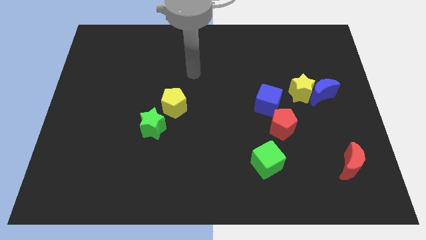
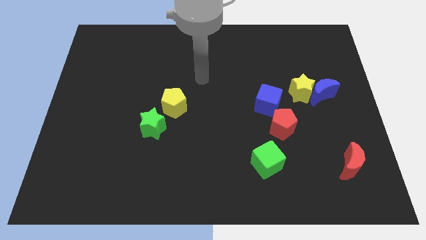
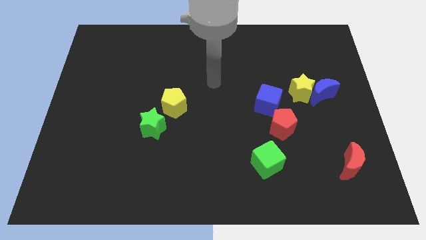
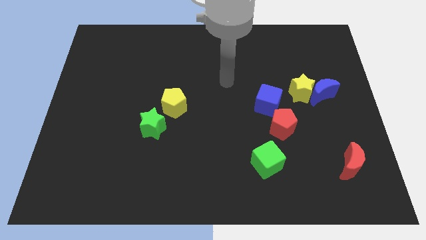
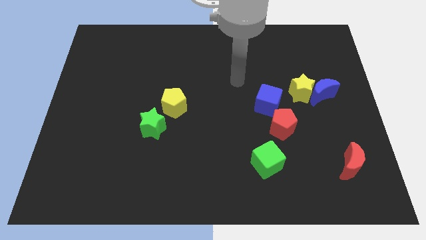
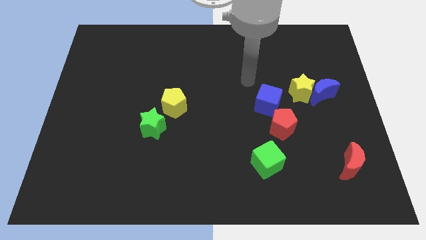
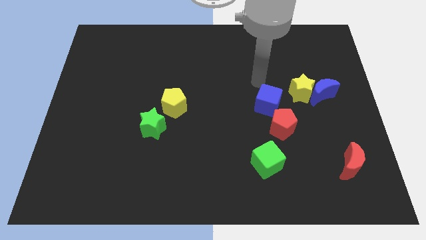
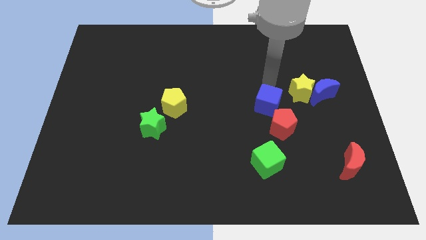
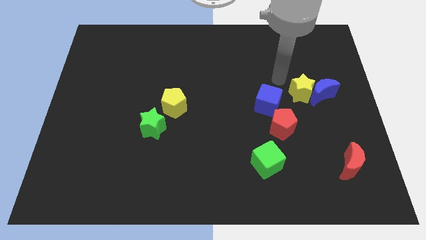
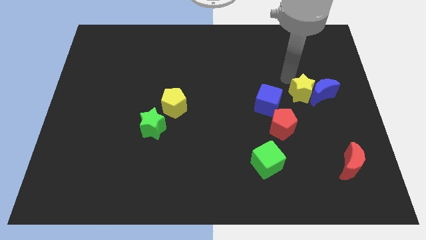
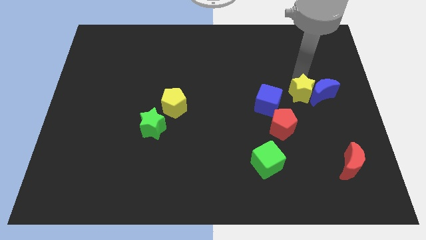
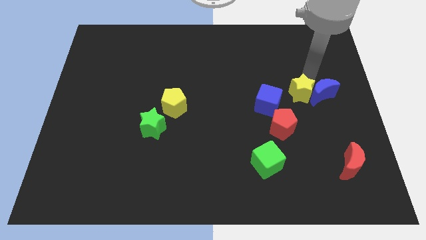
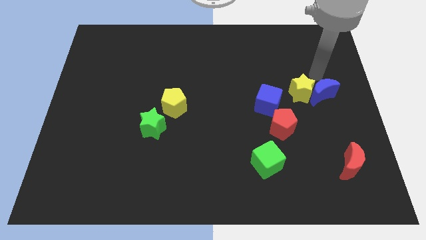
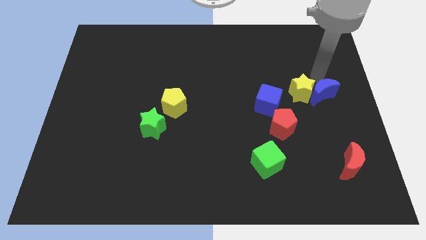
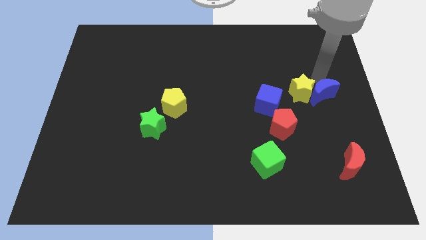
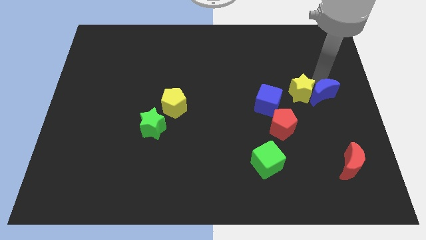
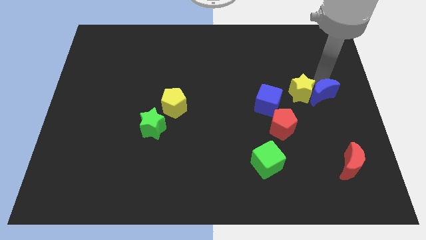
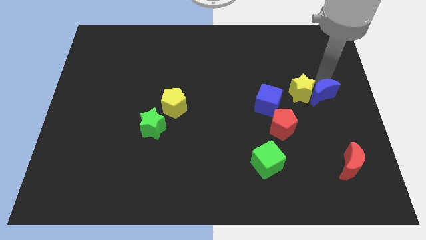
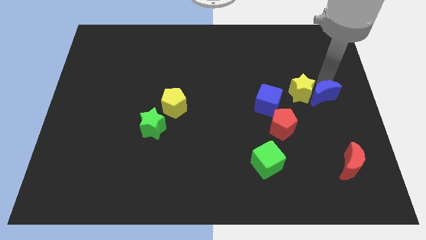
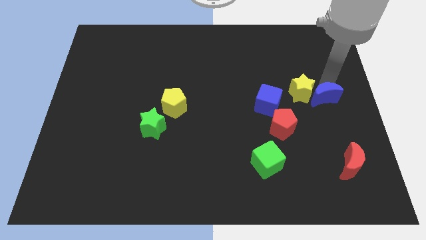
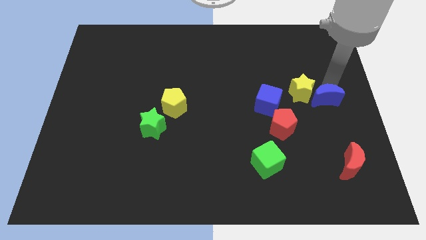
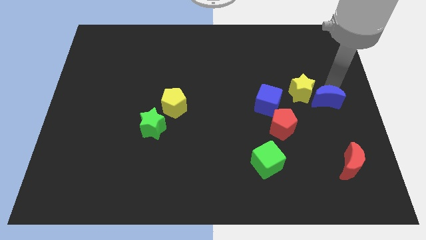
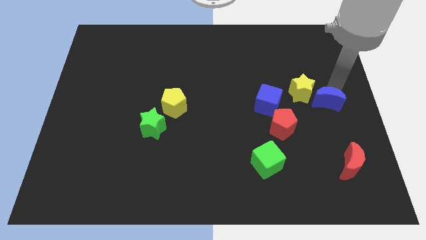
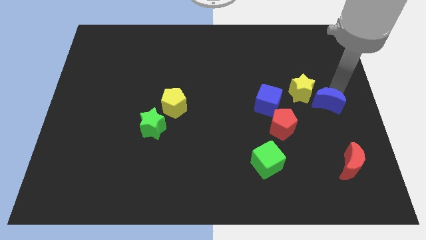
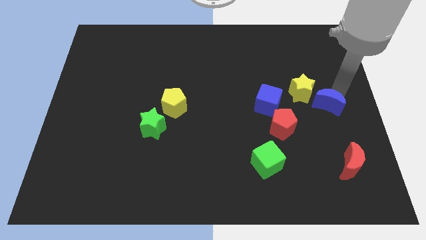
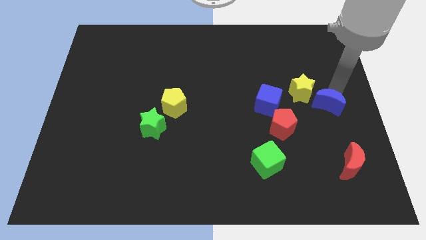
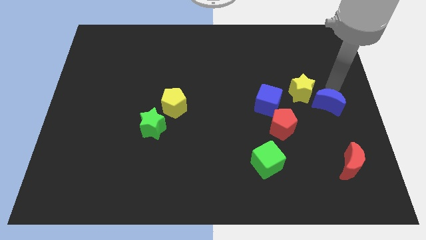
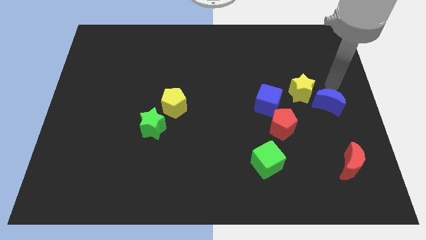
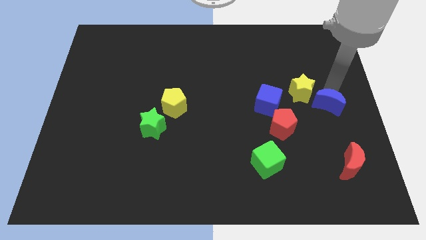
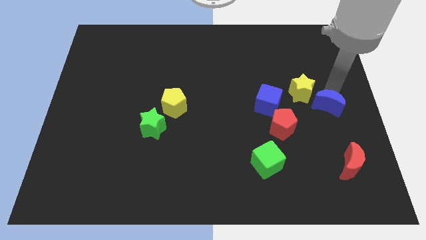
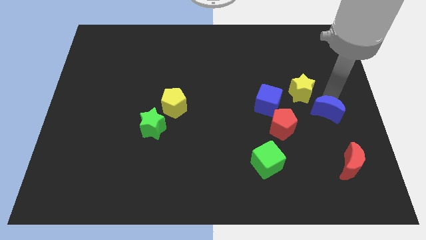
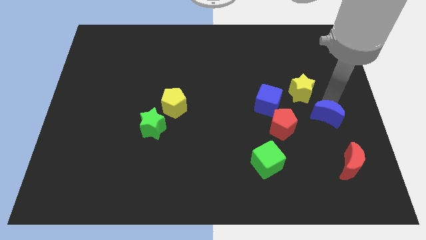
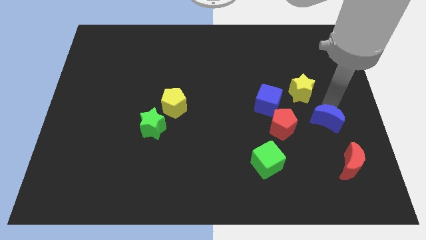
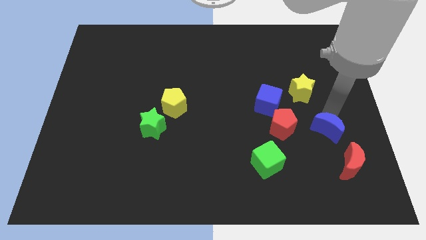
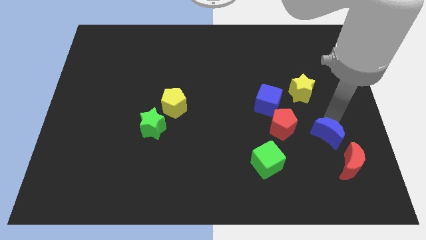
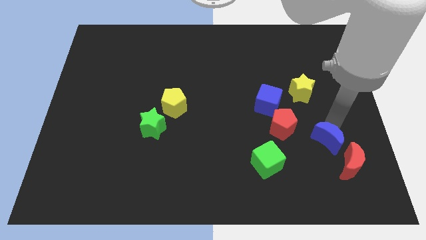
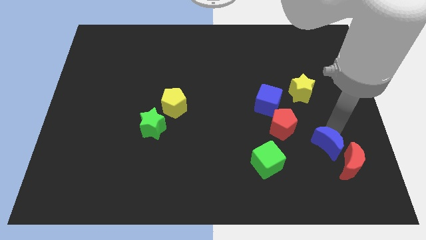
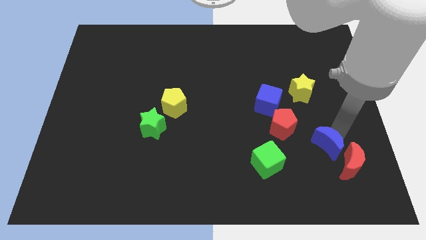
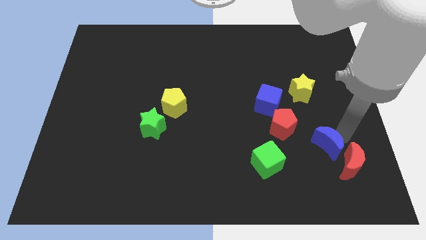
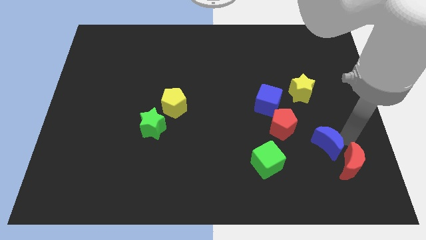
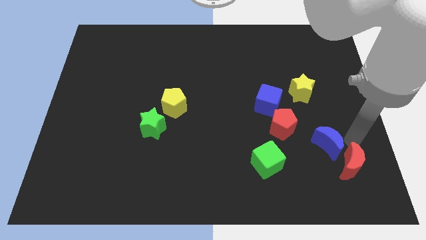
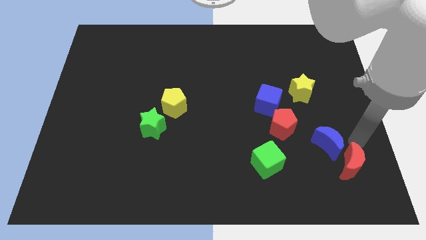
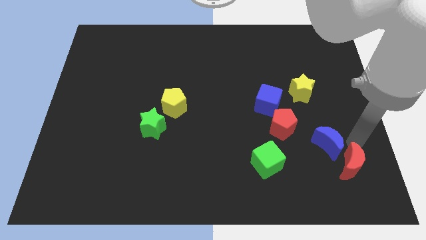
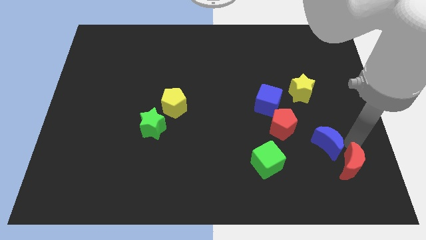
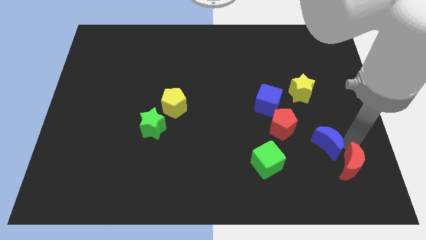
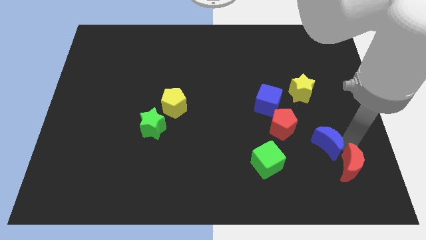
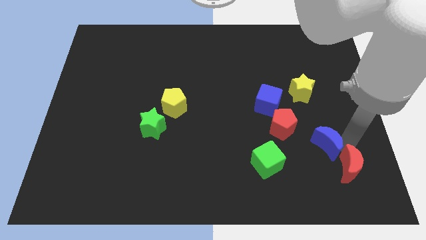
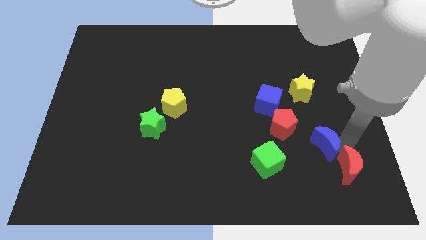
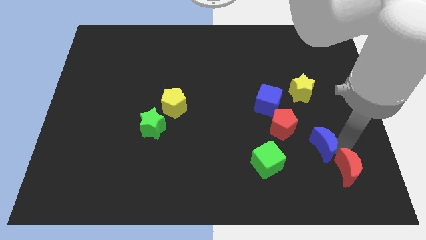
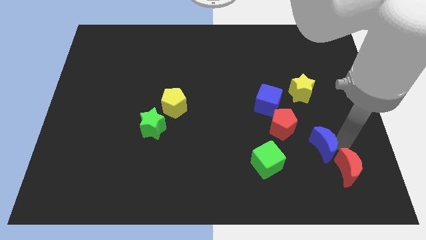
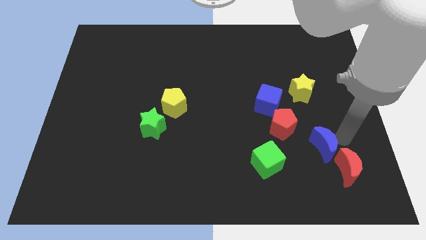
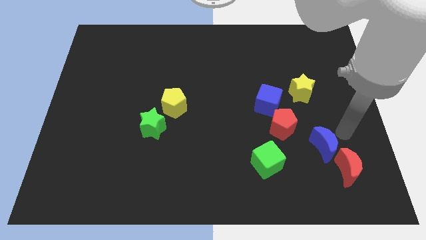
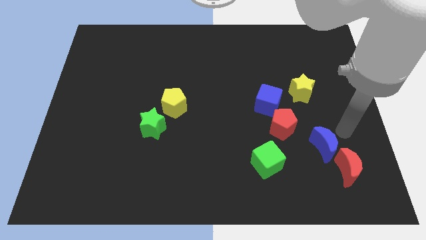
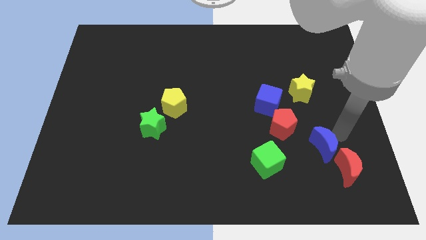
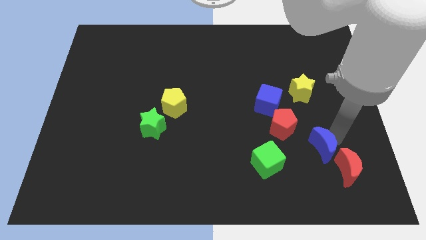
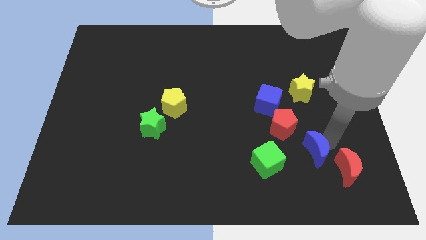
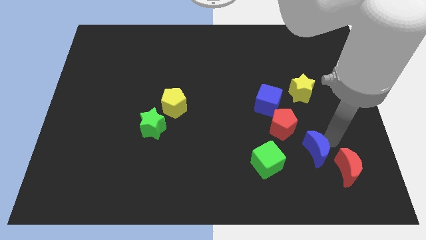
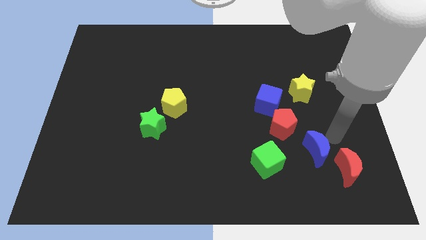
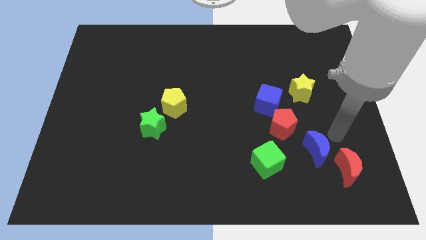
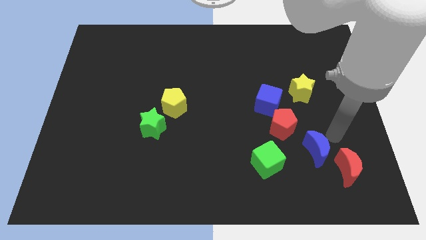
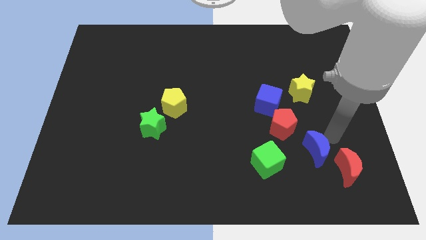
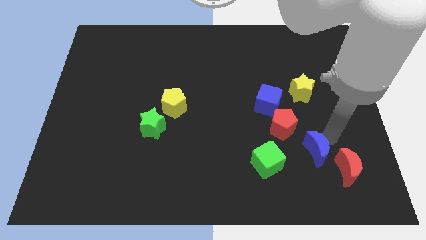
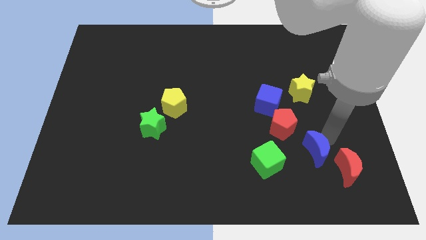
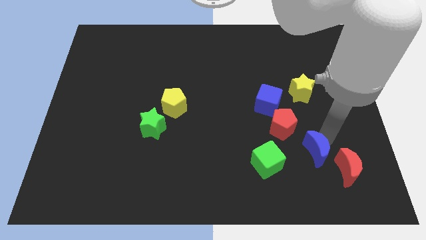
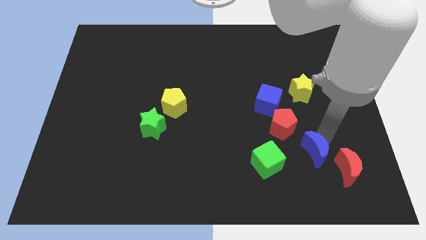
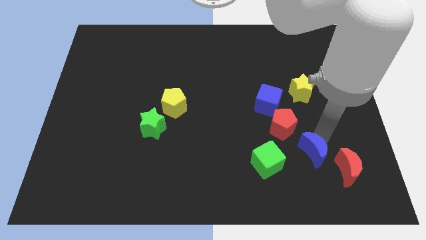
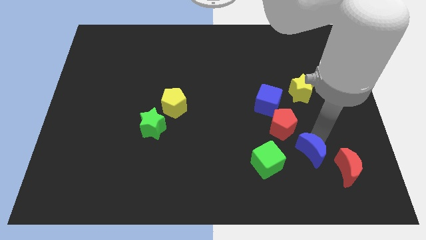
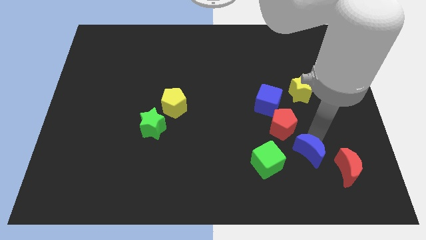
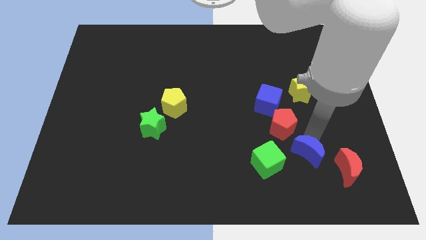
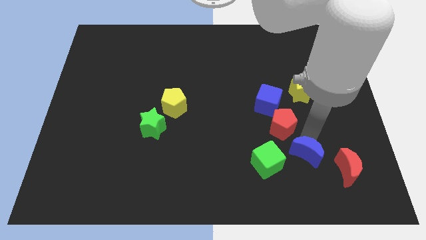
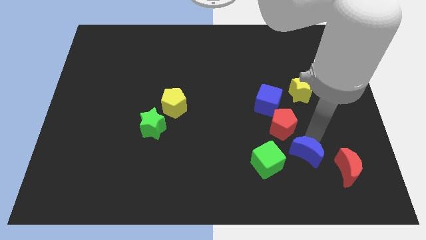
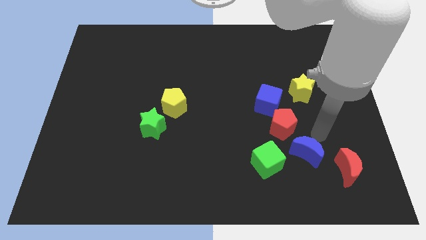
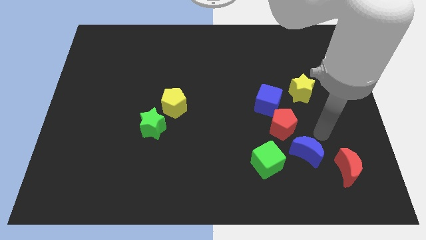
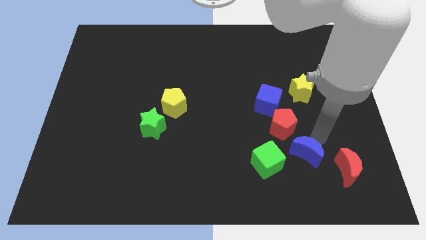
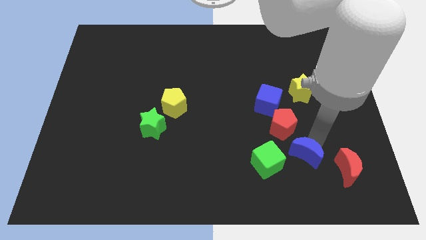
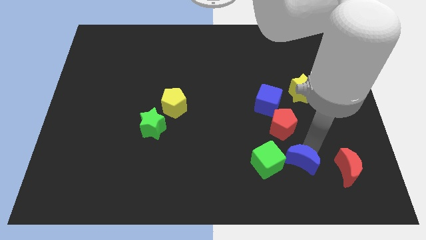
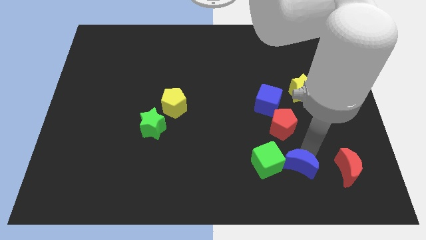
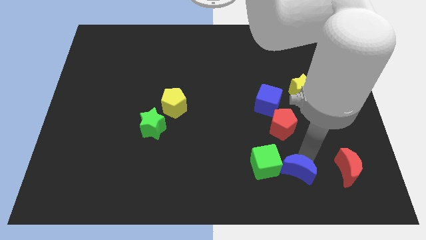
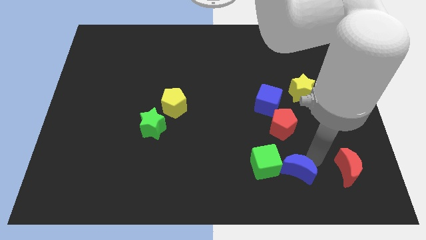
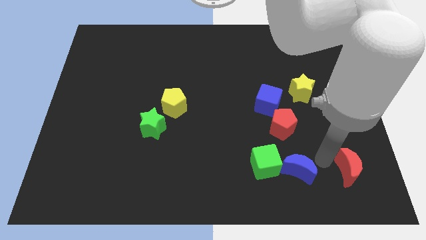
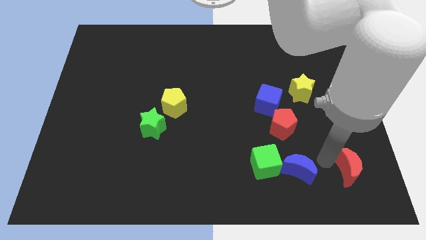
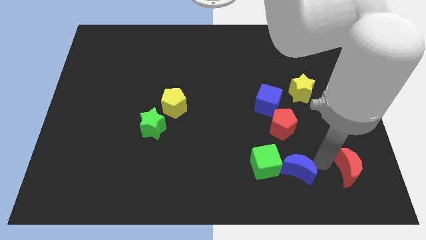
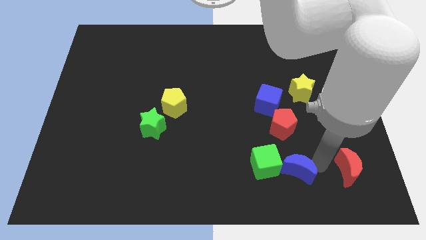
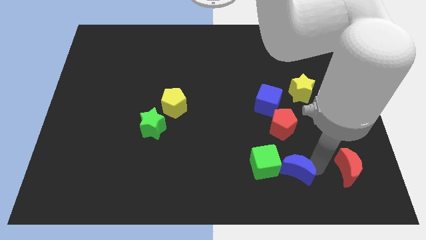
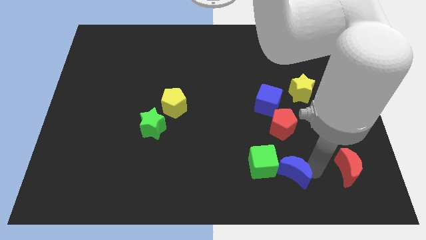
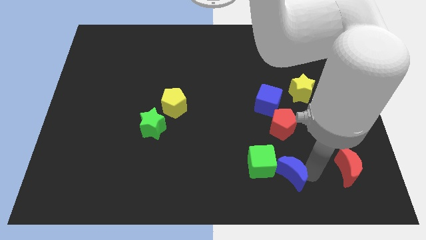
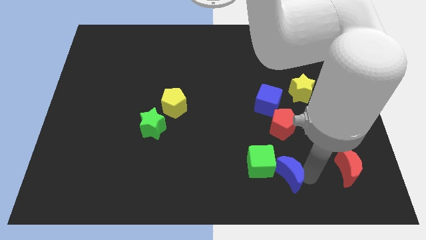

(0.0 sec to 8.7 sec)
slide the blue moon downwards and to the left
